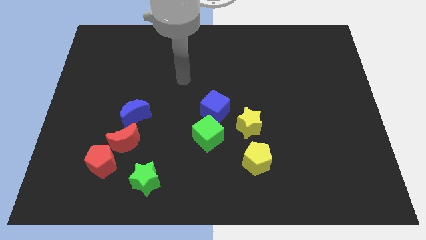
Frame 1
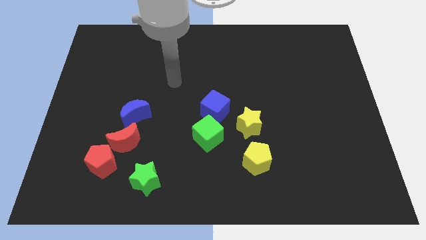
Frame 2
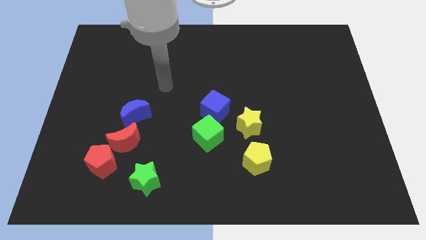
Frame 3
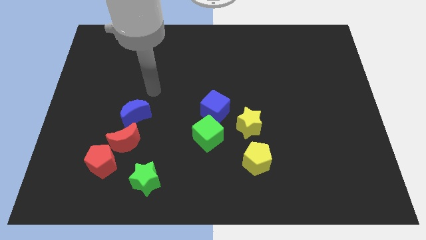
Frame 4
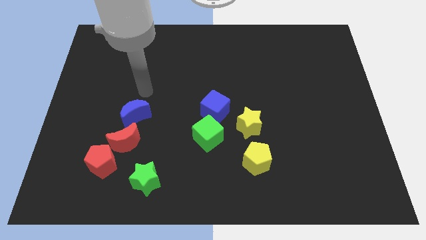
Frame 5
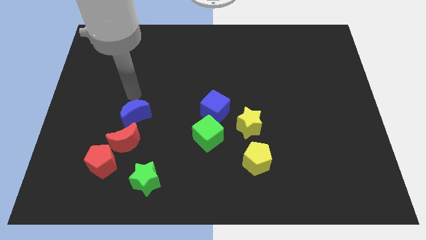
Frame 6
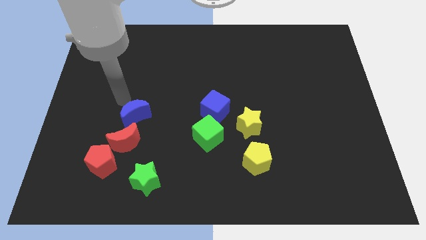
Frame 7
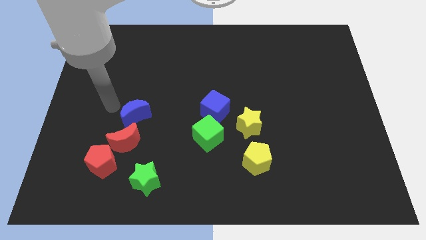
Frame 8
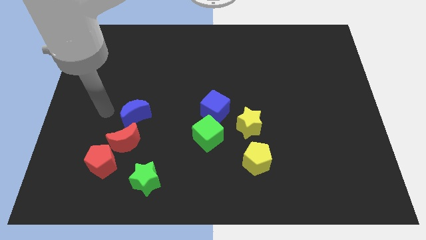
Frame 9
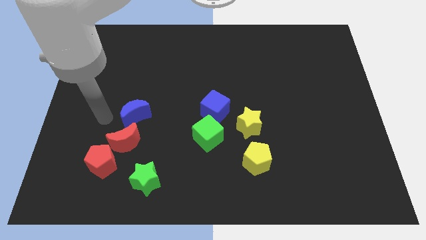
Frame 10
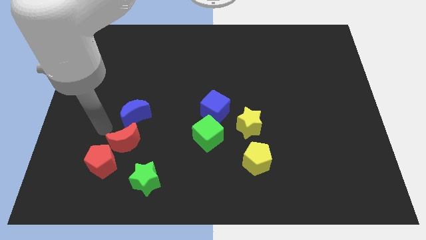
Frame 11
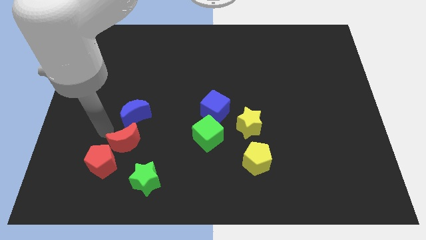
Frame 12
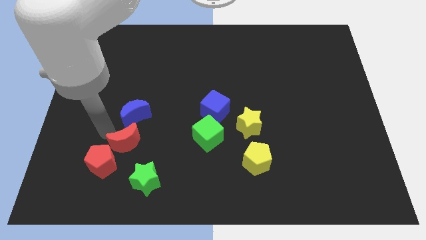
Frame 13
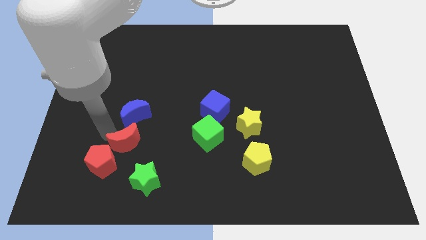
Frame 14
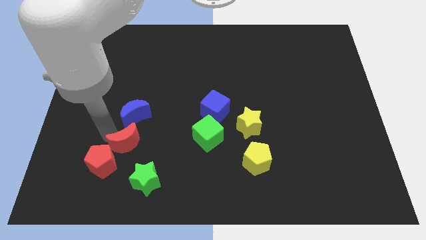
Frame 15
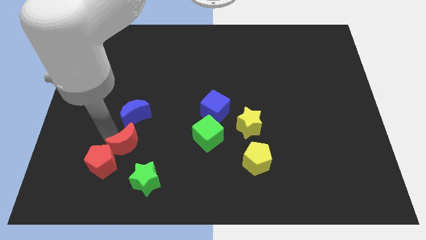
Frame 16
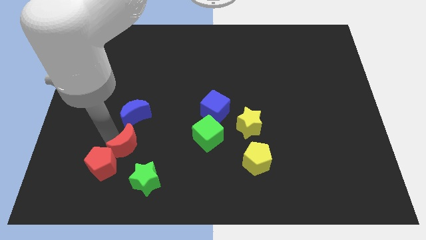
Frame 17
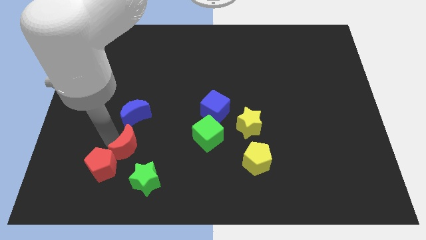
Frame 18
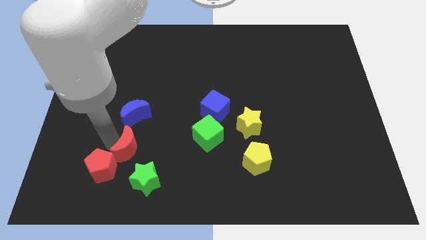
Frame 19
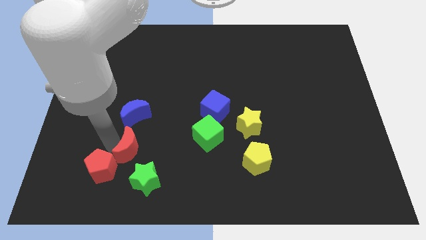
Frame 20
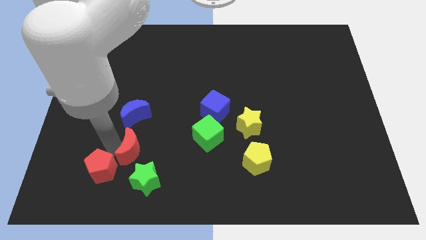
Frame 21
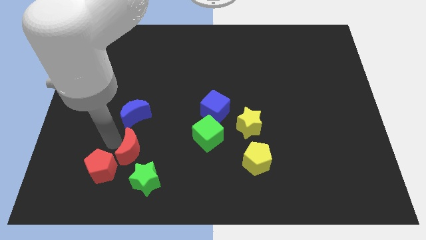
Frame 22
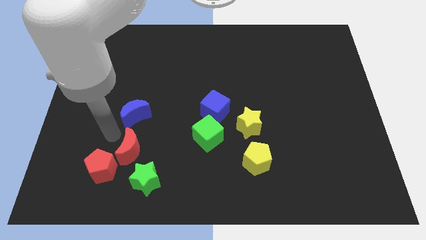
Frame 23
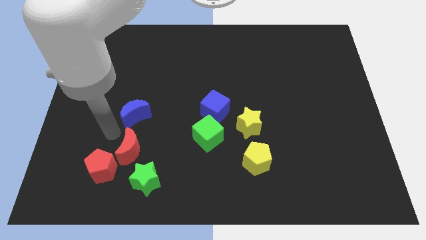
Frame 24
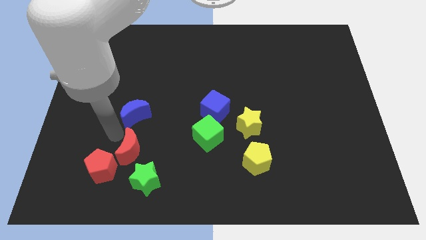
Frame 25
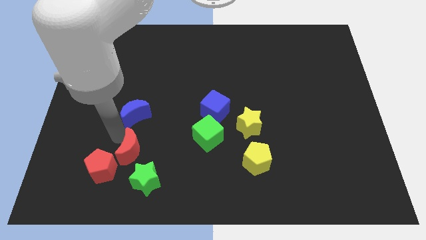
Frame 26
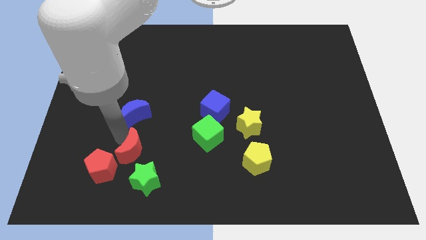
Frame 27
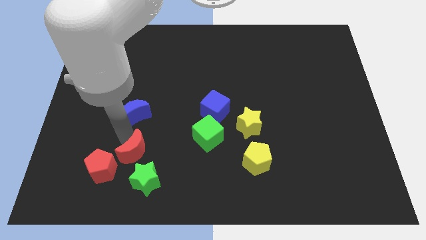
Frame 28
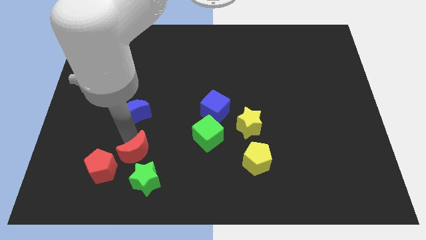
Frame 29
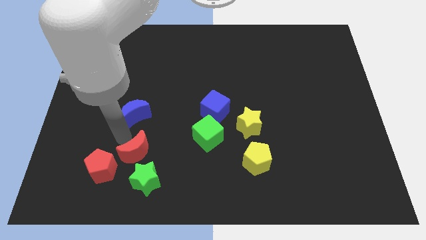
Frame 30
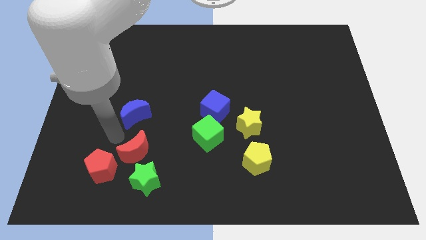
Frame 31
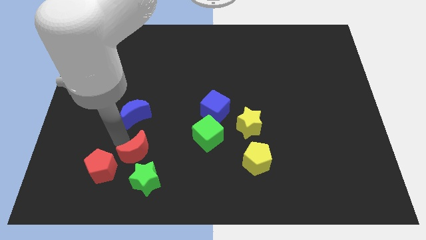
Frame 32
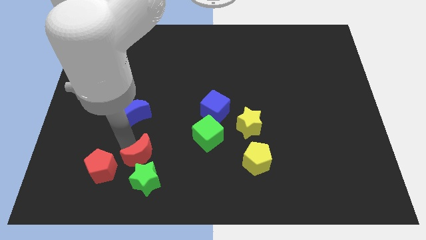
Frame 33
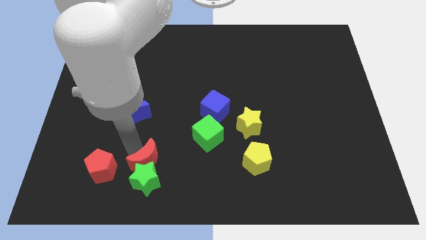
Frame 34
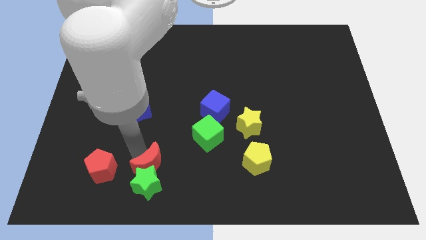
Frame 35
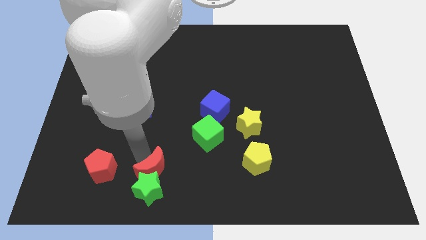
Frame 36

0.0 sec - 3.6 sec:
separate the red moon from the red pentagon and blue moon

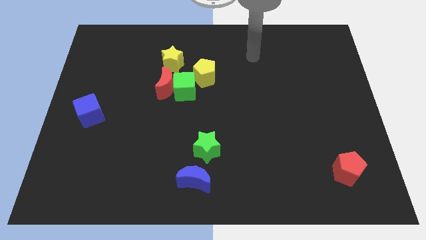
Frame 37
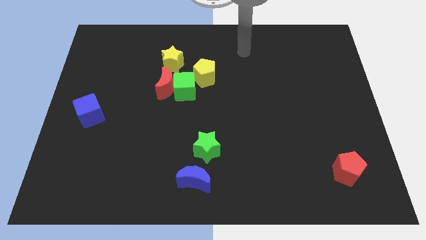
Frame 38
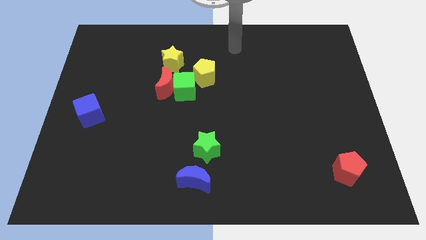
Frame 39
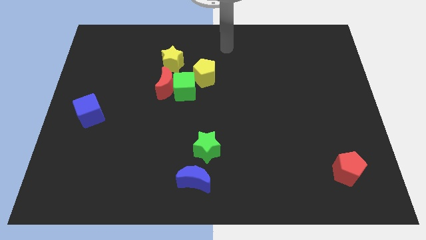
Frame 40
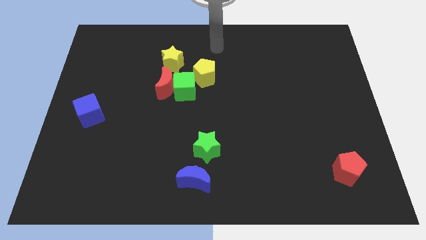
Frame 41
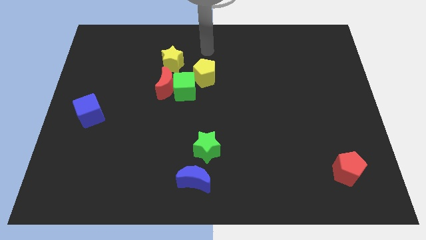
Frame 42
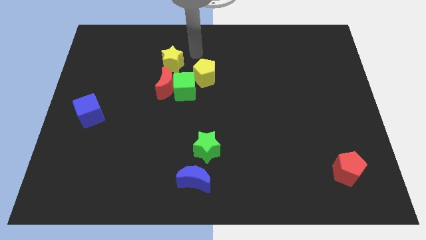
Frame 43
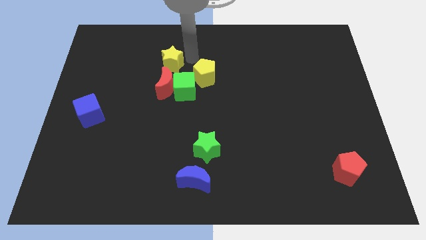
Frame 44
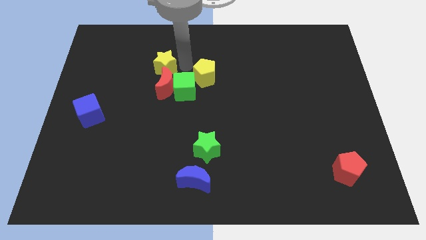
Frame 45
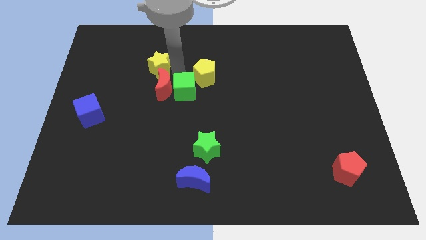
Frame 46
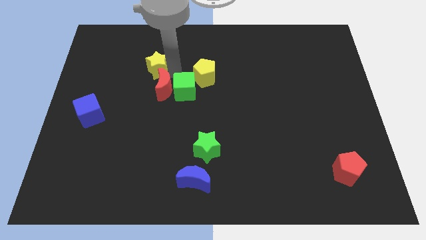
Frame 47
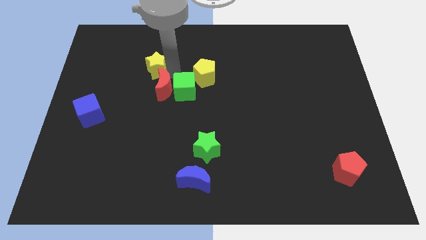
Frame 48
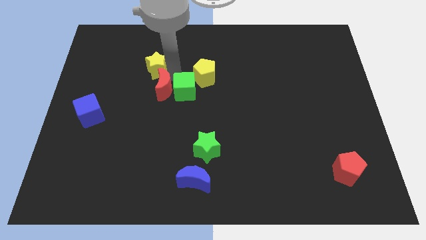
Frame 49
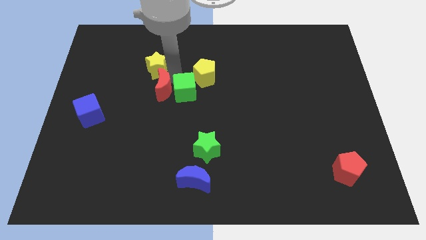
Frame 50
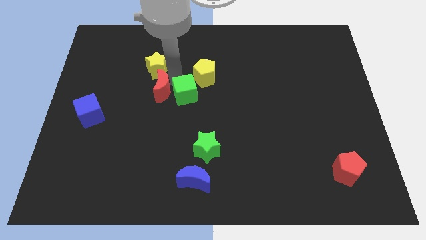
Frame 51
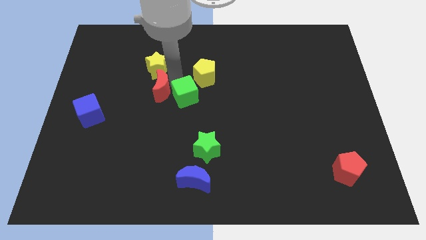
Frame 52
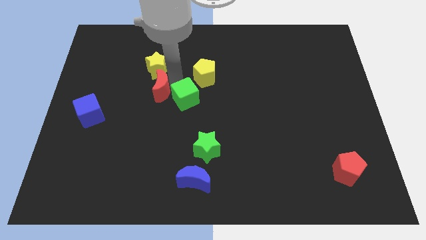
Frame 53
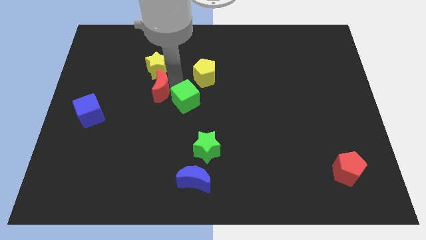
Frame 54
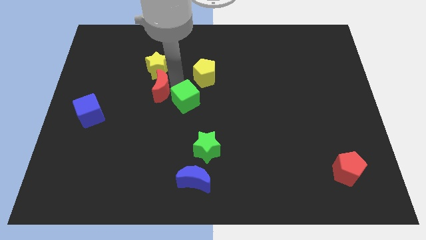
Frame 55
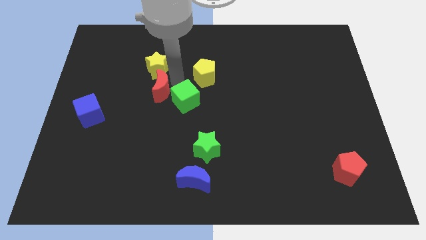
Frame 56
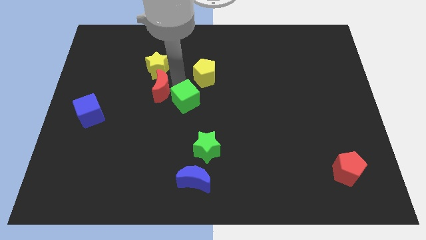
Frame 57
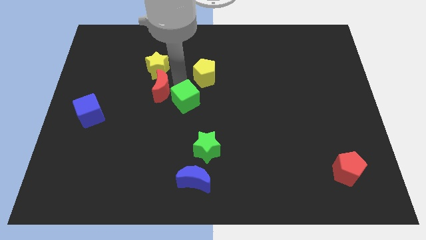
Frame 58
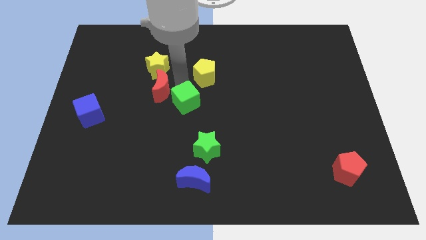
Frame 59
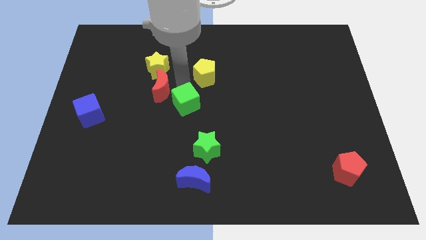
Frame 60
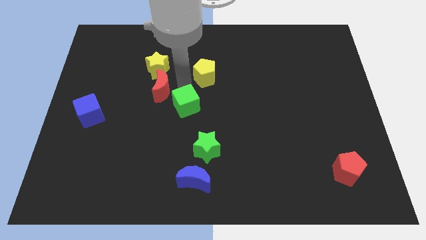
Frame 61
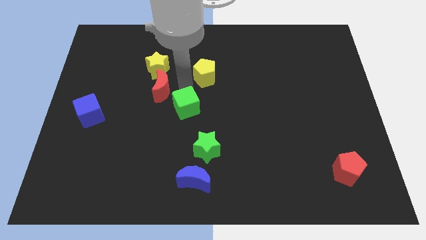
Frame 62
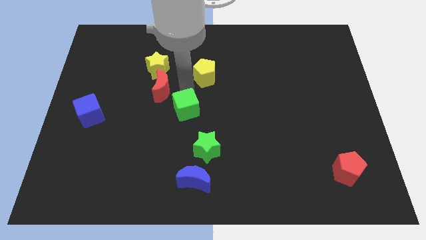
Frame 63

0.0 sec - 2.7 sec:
move the green cube away from the red moon, yellow pentagon, and yellow star

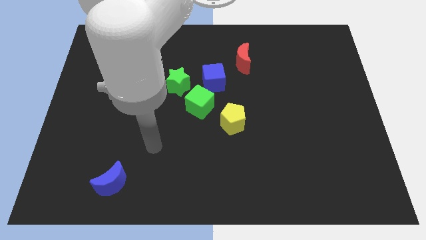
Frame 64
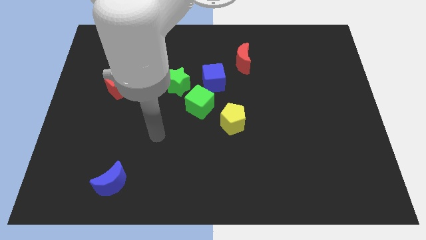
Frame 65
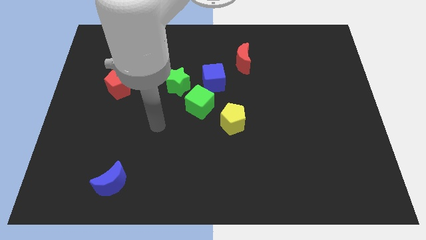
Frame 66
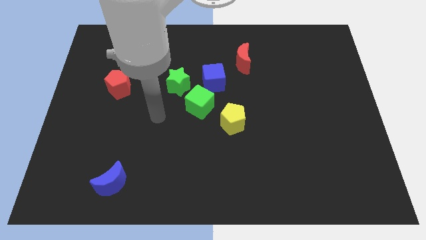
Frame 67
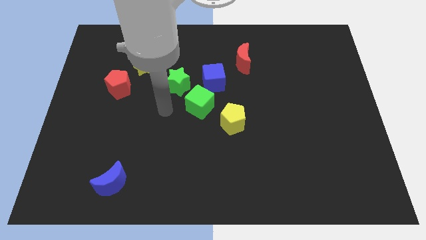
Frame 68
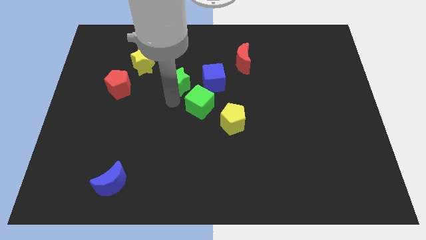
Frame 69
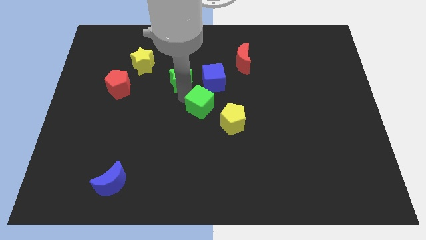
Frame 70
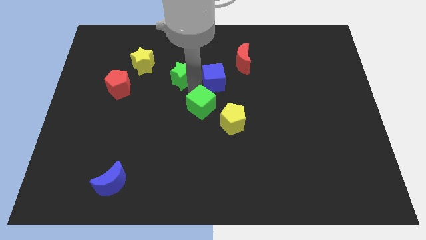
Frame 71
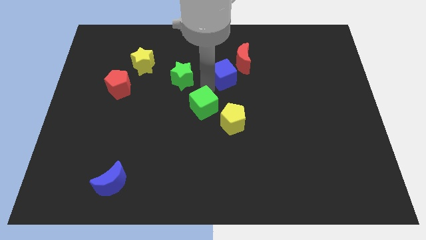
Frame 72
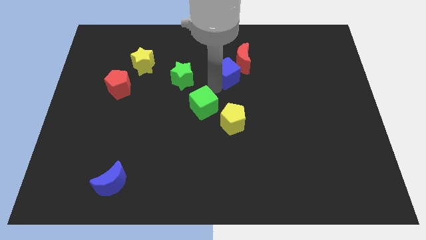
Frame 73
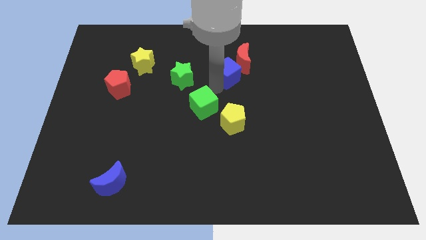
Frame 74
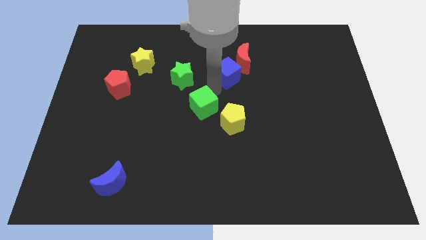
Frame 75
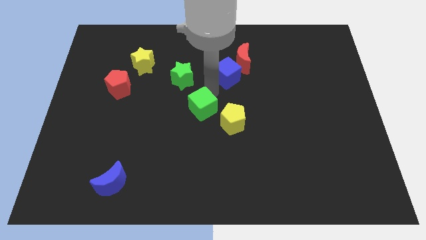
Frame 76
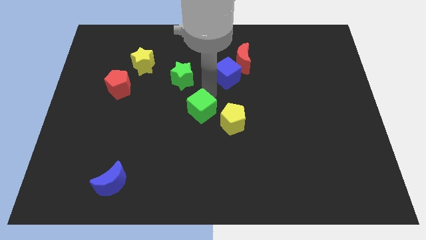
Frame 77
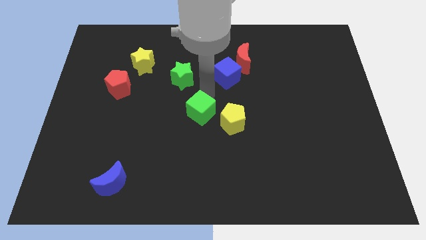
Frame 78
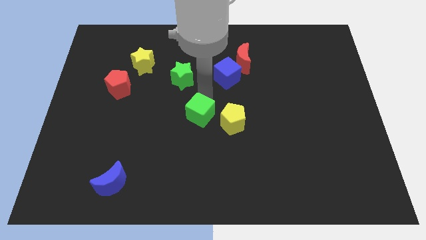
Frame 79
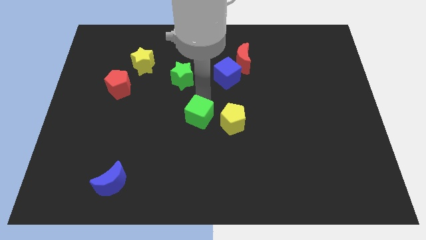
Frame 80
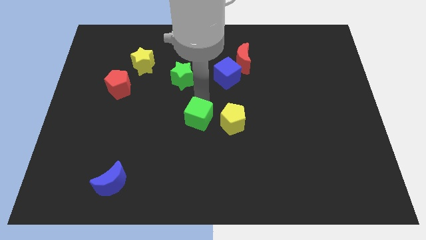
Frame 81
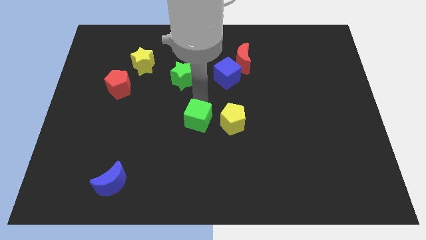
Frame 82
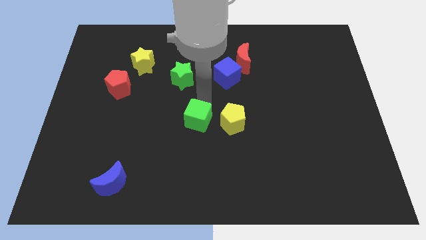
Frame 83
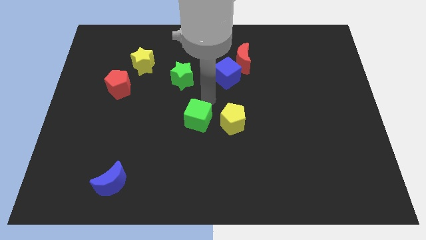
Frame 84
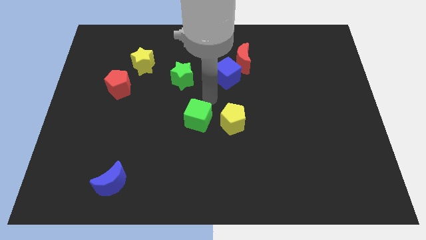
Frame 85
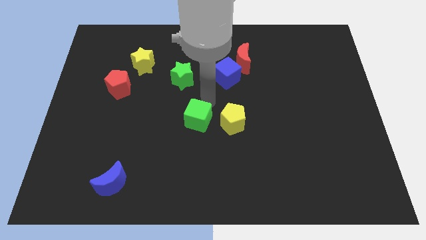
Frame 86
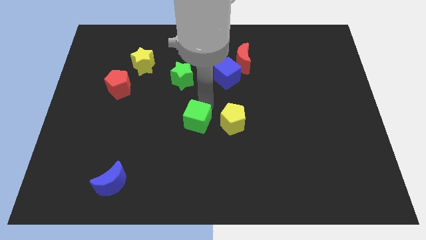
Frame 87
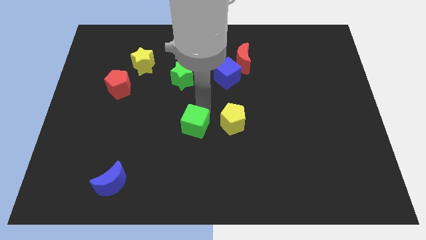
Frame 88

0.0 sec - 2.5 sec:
separate the green cube from the blue cube, green star, and yellow pentagon

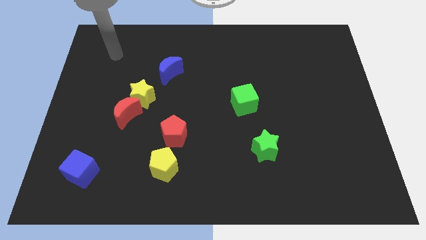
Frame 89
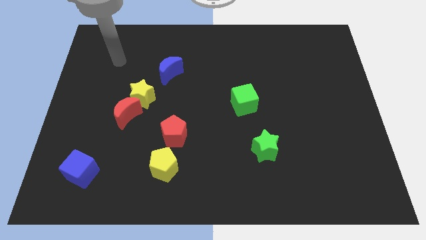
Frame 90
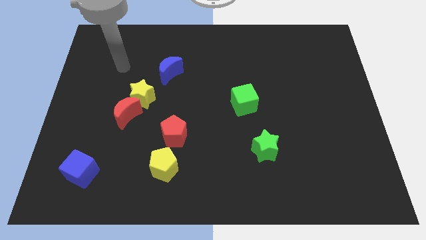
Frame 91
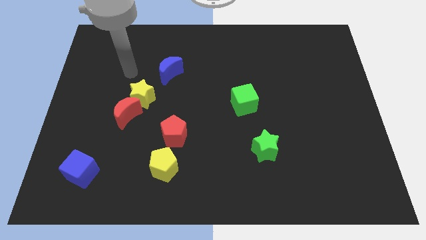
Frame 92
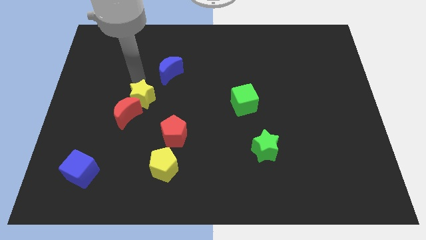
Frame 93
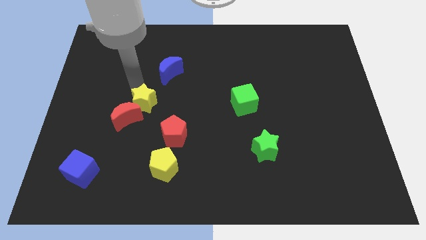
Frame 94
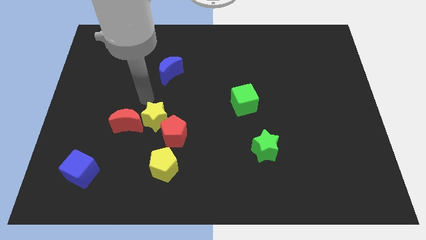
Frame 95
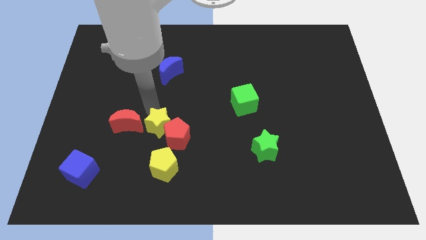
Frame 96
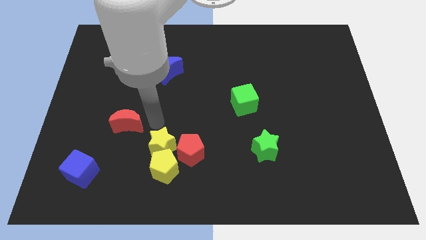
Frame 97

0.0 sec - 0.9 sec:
pull the red moon apart from the yellow star
